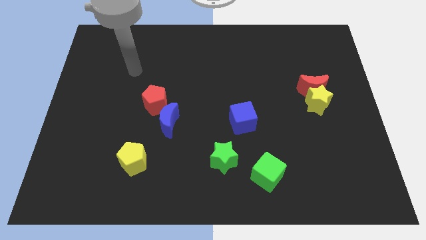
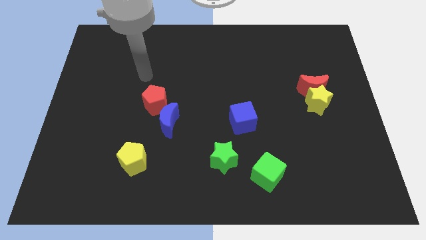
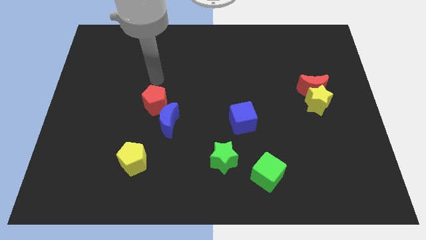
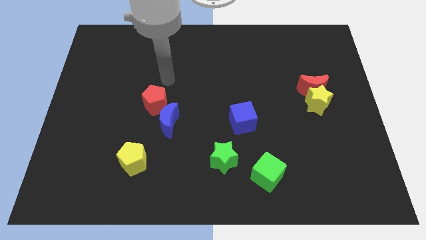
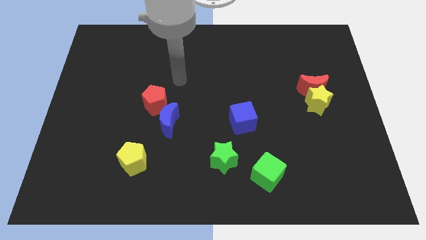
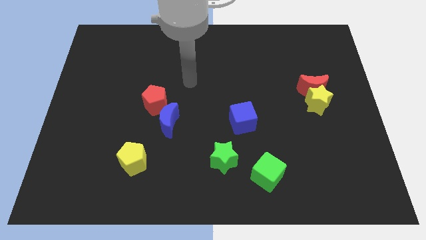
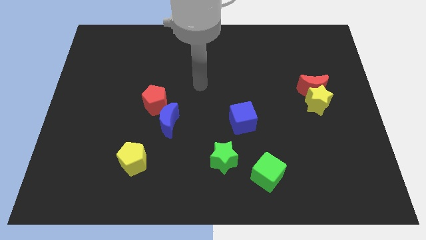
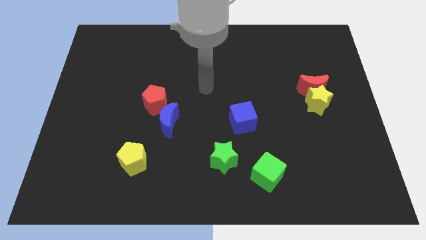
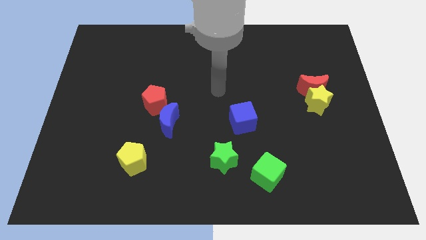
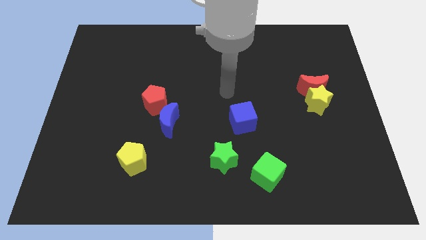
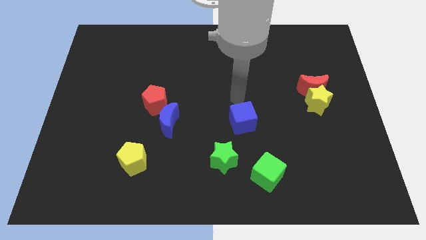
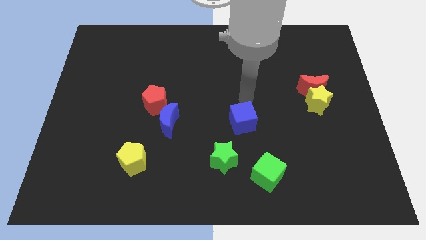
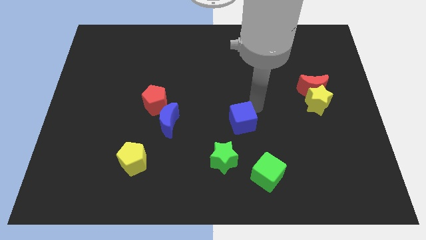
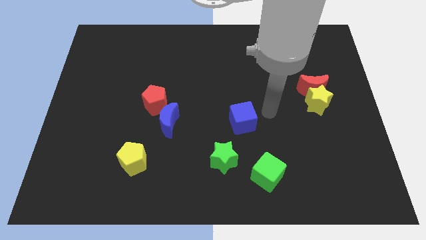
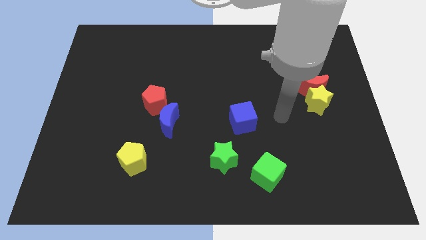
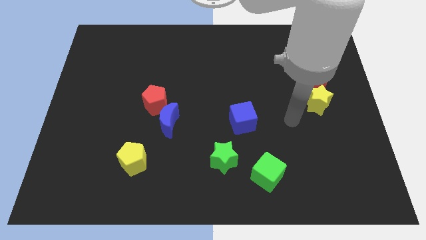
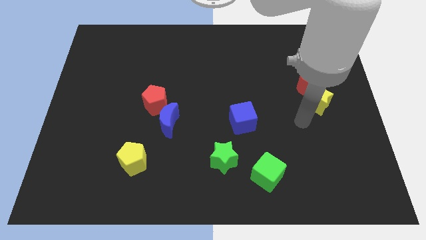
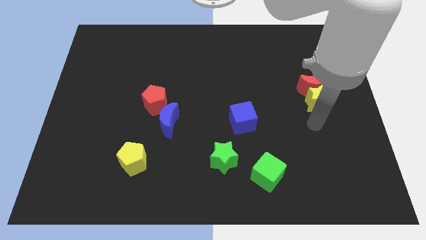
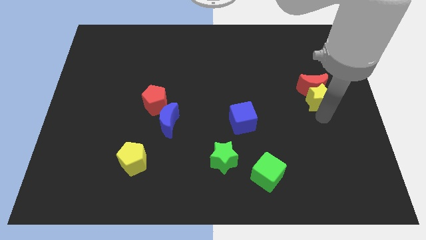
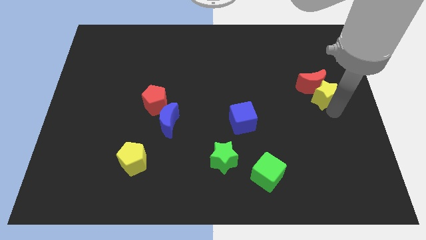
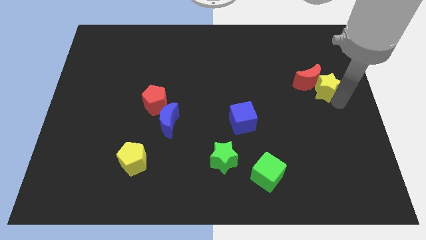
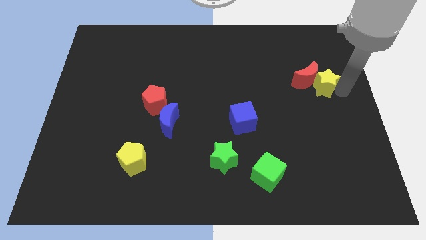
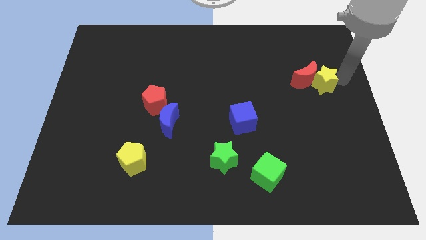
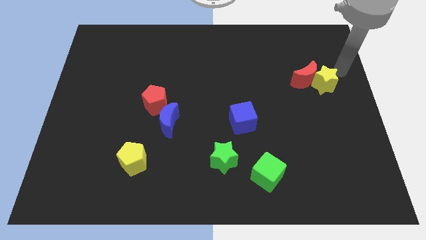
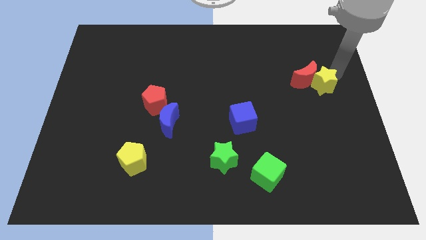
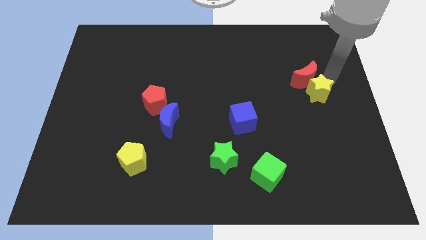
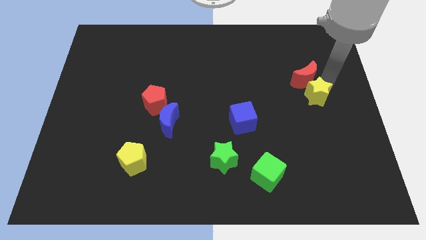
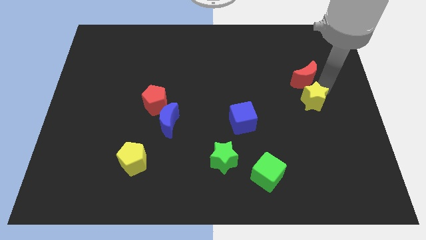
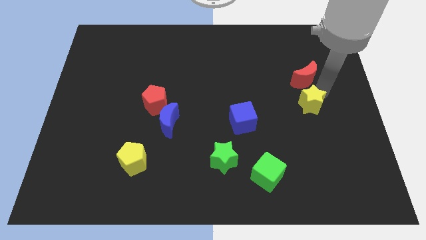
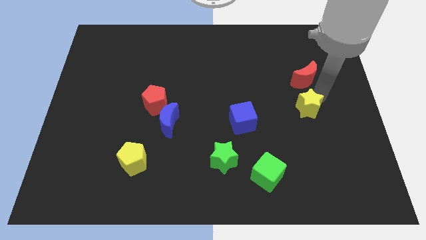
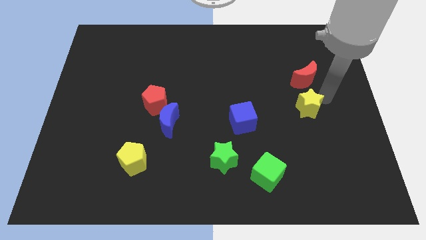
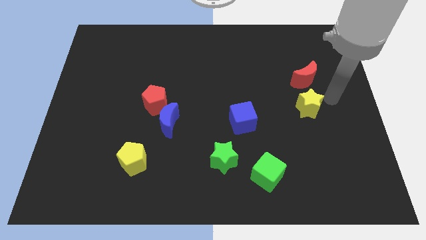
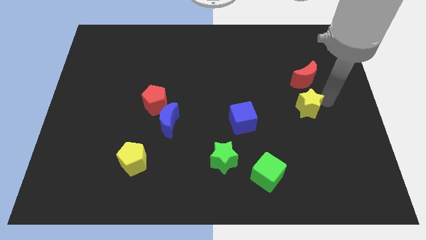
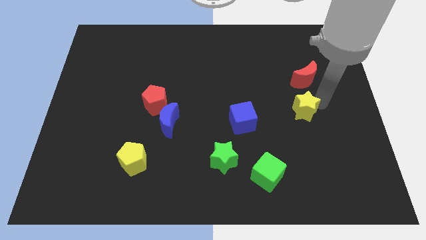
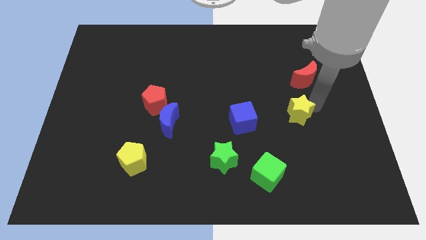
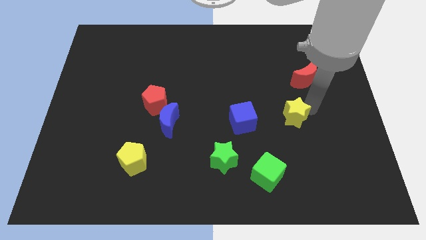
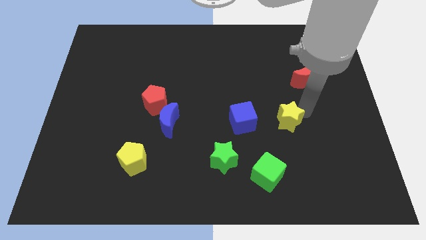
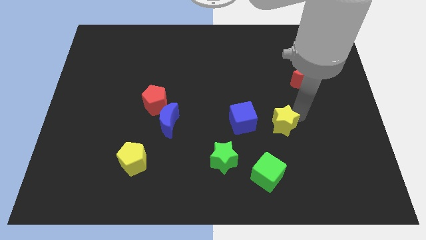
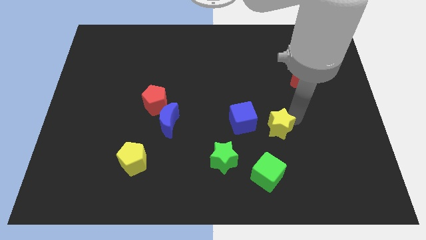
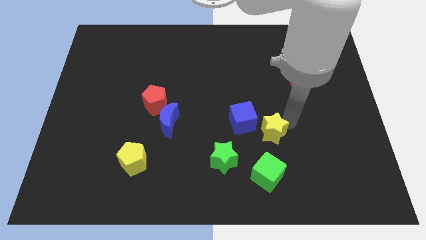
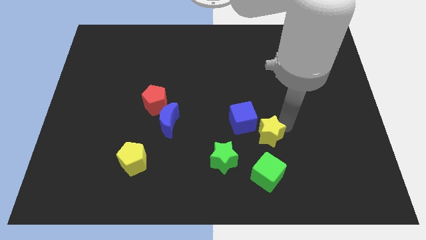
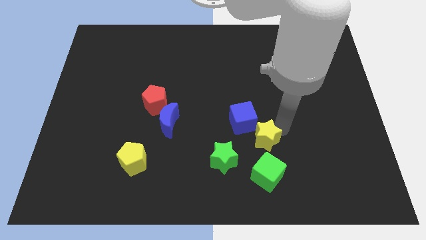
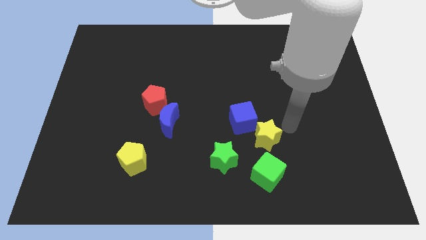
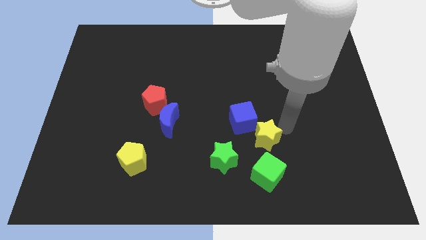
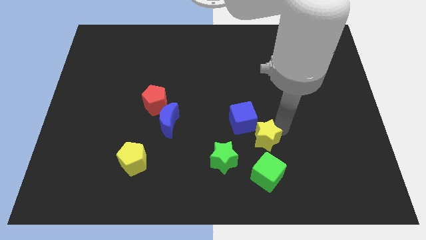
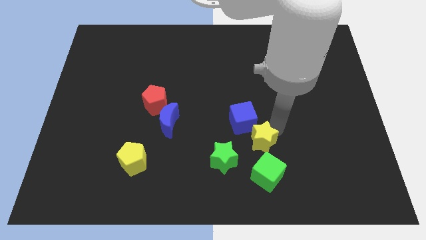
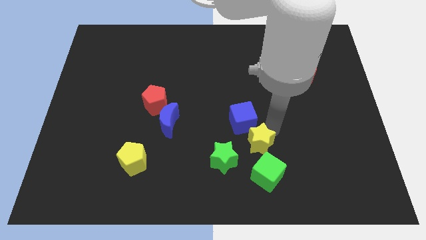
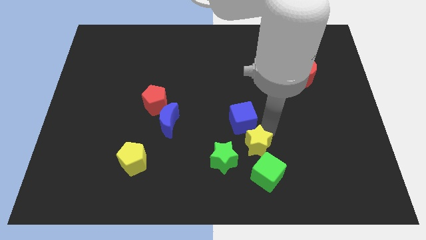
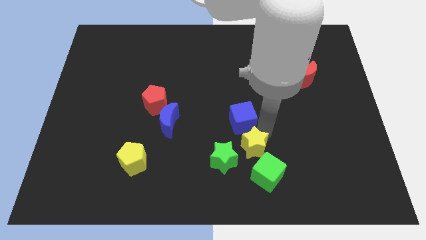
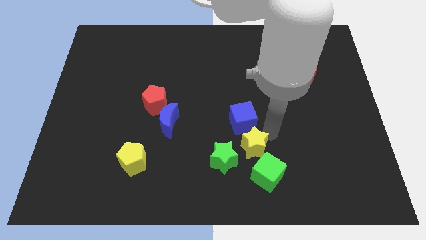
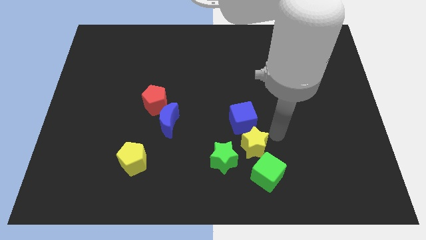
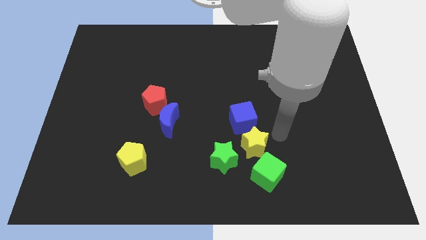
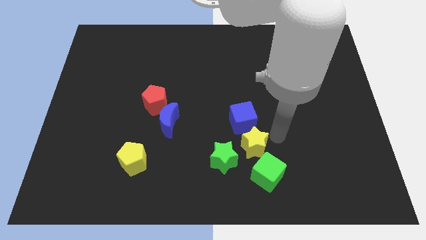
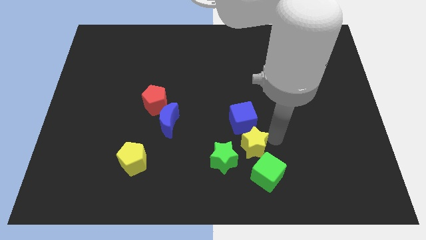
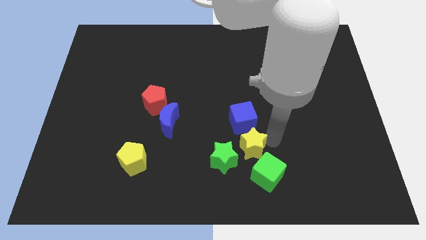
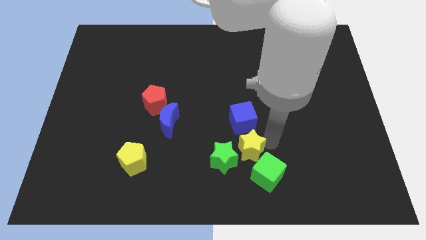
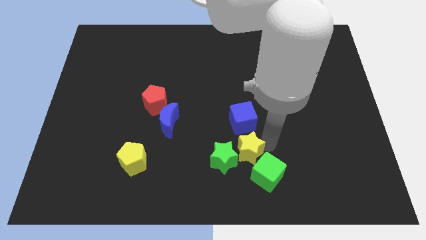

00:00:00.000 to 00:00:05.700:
move the yellow star to the green star

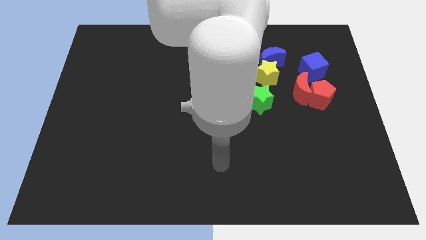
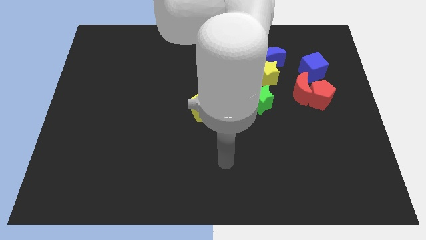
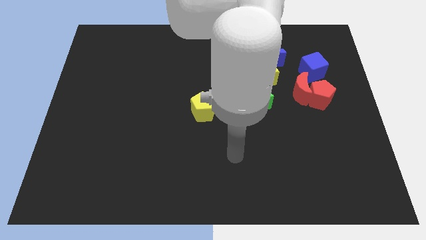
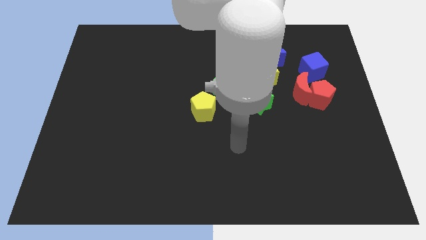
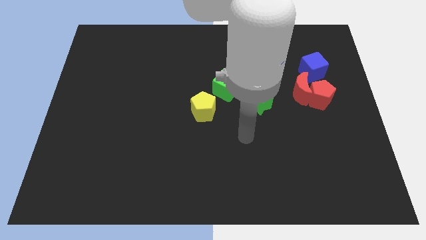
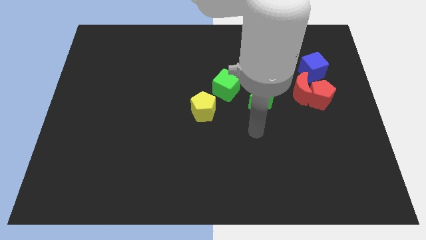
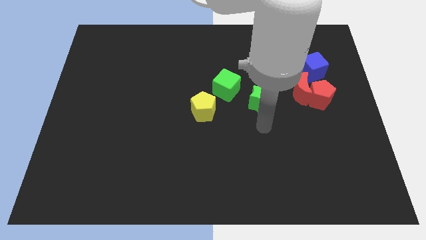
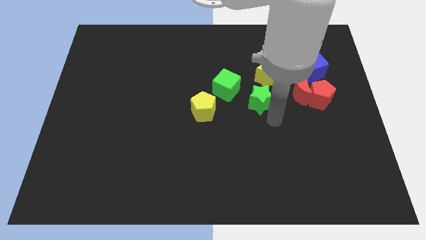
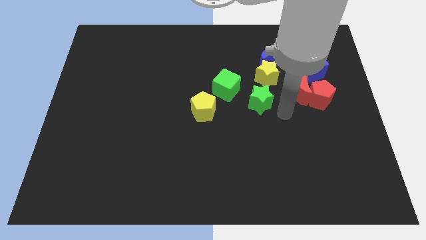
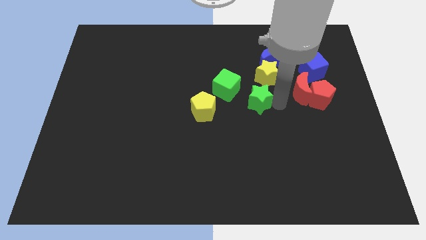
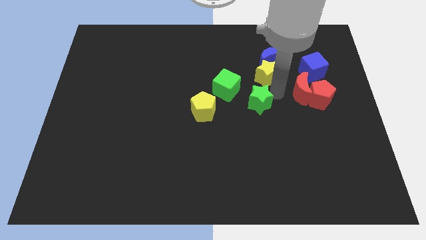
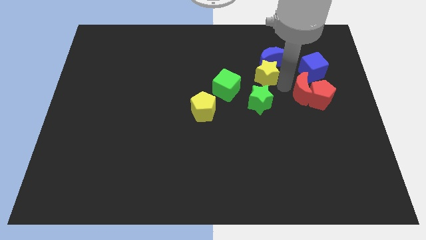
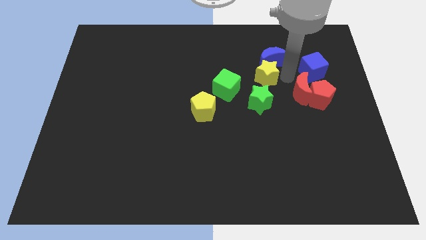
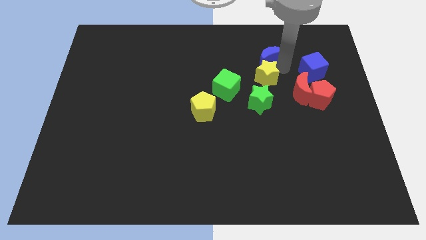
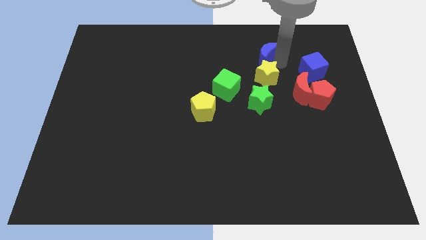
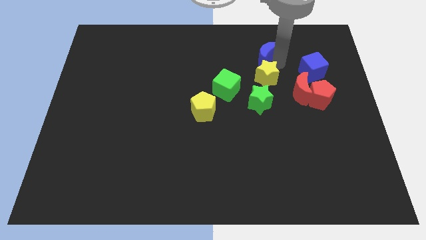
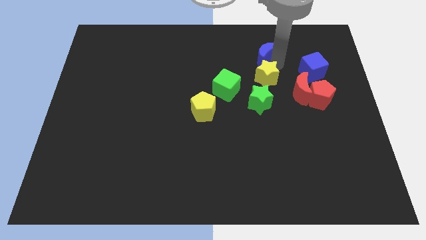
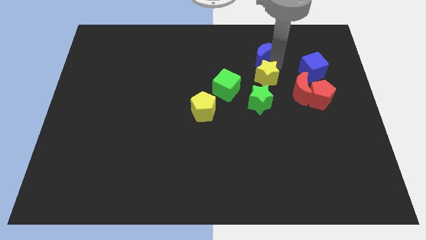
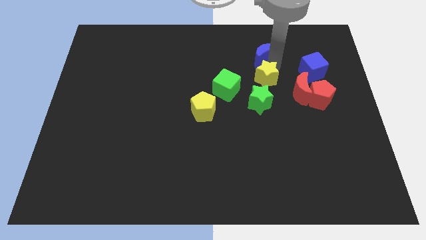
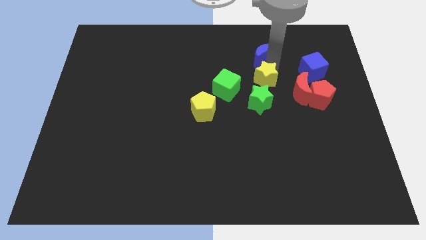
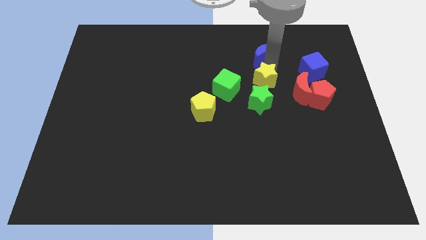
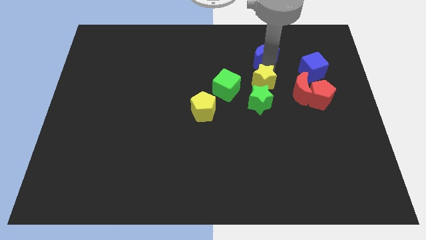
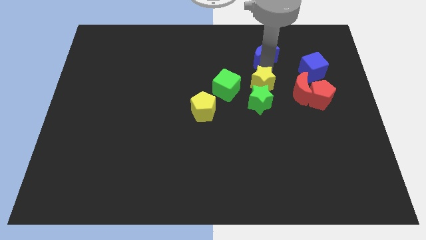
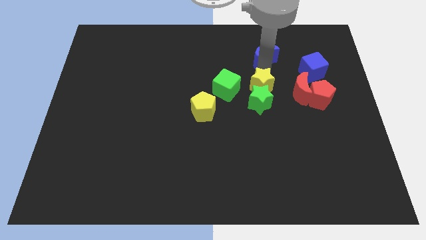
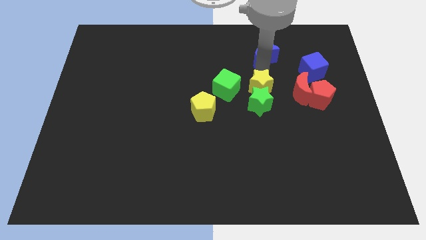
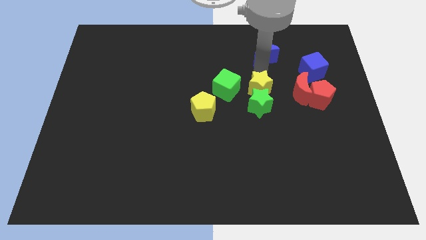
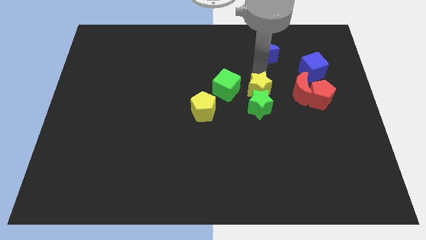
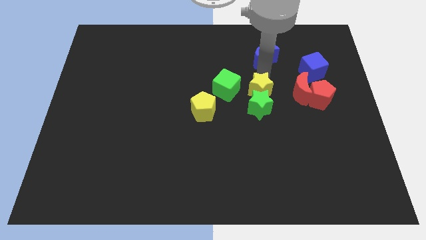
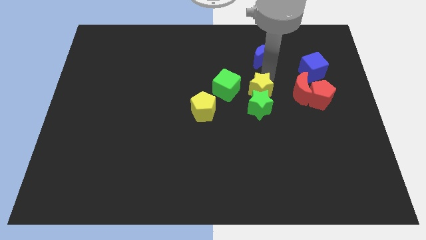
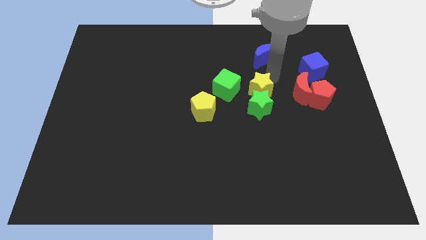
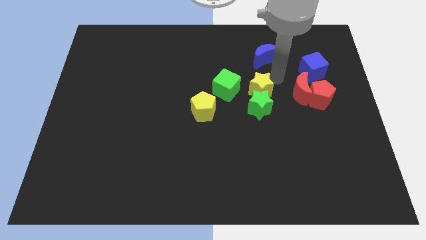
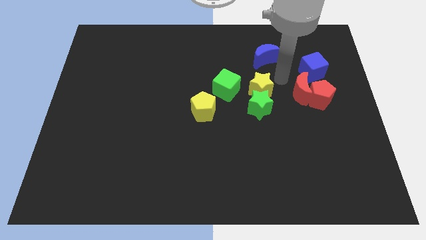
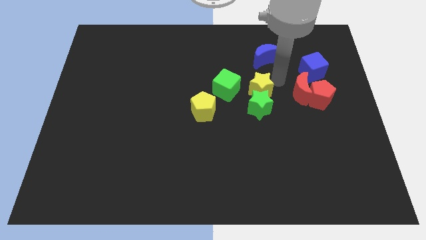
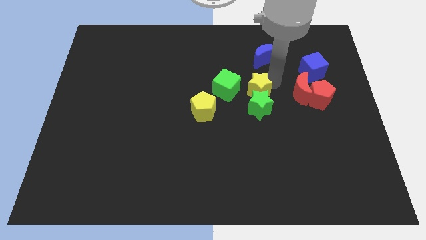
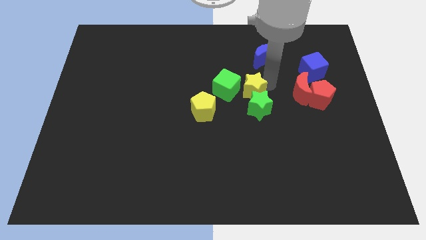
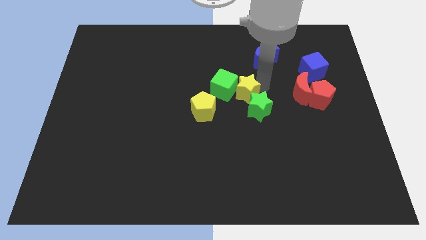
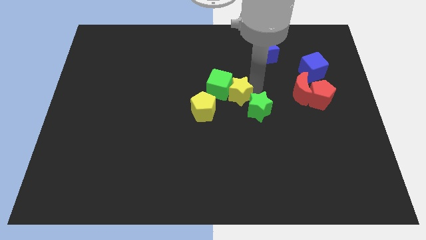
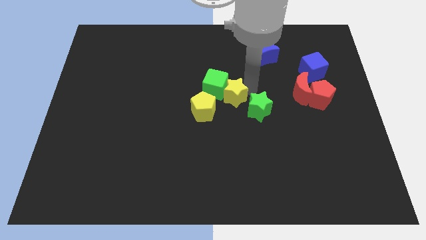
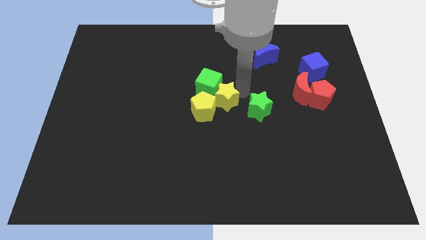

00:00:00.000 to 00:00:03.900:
slide the yellow star to the yellow pentagon
